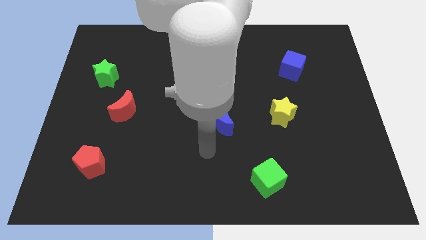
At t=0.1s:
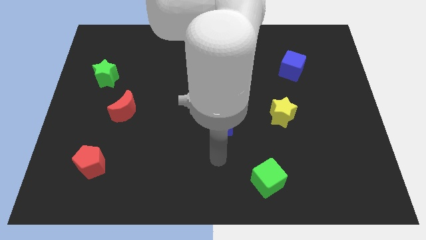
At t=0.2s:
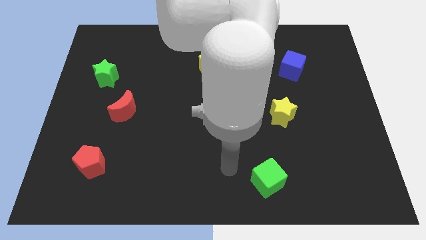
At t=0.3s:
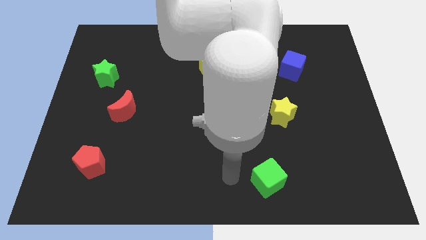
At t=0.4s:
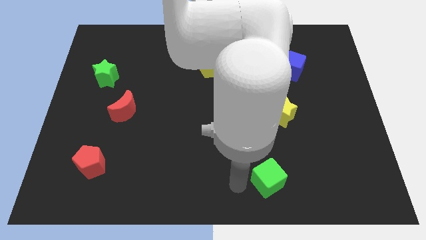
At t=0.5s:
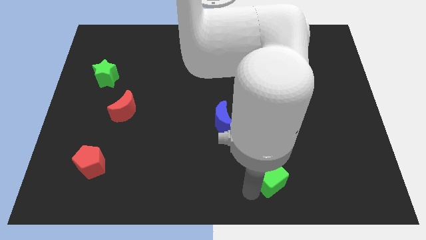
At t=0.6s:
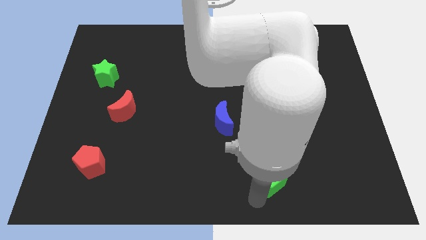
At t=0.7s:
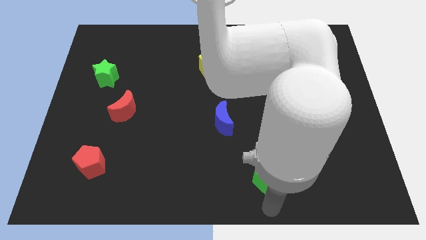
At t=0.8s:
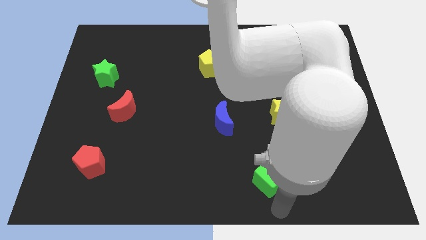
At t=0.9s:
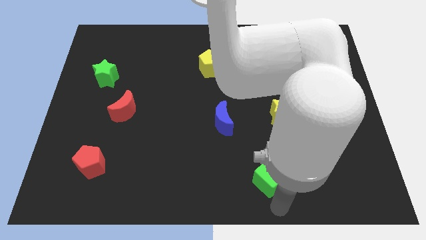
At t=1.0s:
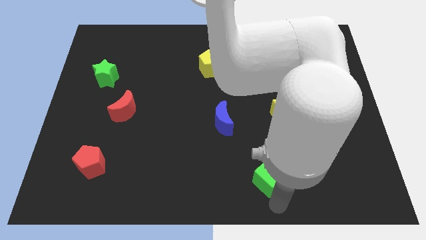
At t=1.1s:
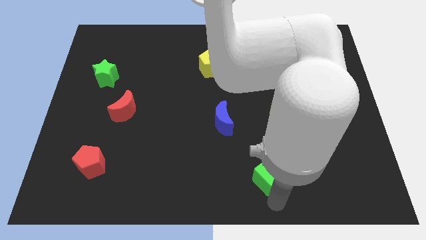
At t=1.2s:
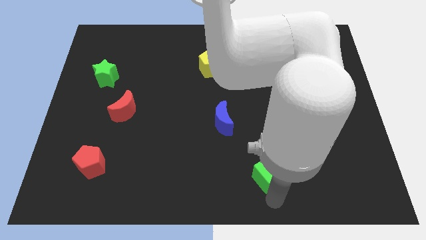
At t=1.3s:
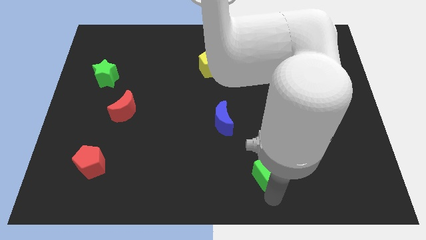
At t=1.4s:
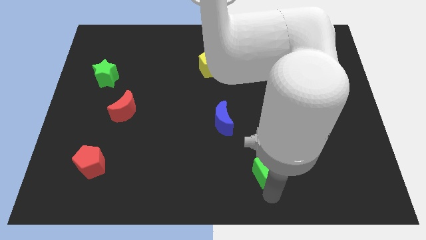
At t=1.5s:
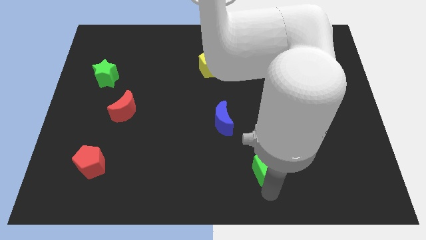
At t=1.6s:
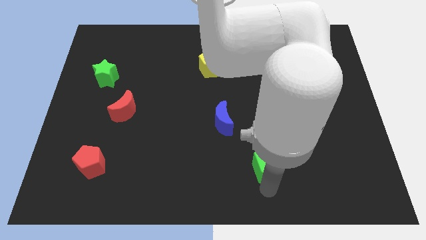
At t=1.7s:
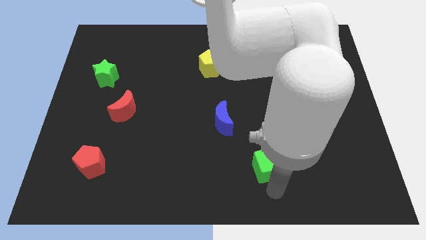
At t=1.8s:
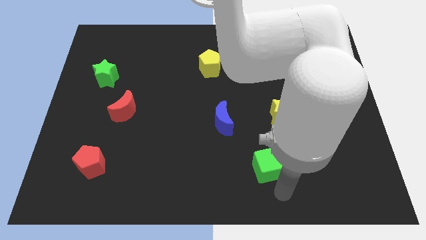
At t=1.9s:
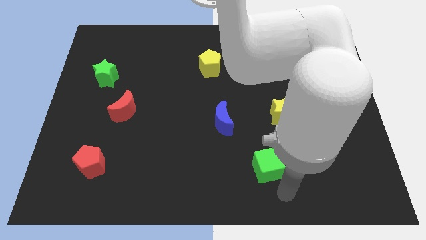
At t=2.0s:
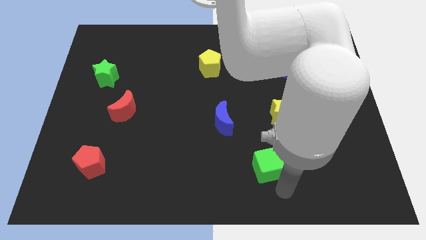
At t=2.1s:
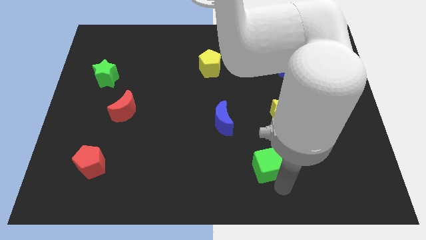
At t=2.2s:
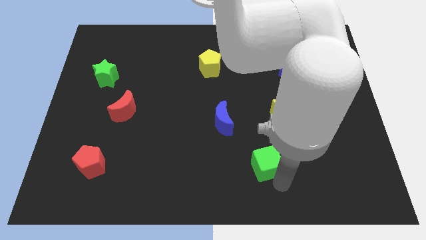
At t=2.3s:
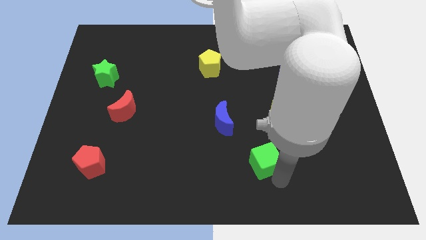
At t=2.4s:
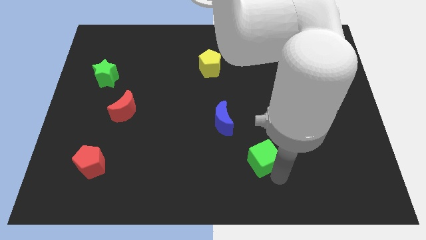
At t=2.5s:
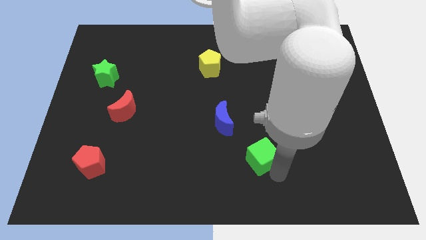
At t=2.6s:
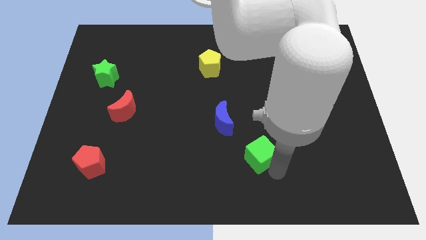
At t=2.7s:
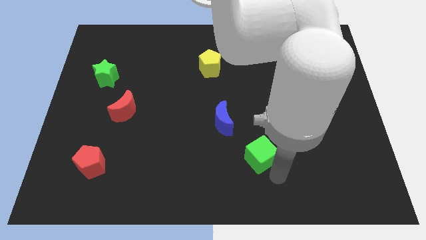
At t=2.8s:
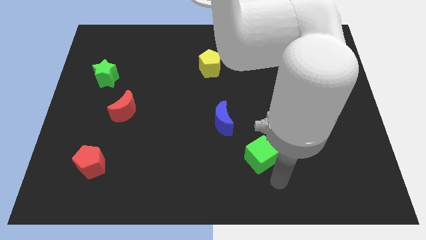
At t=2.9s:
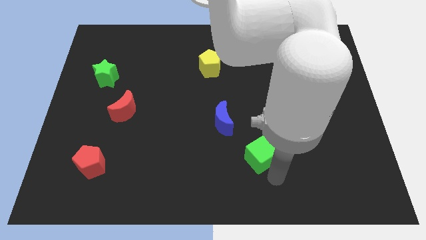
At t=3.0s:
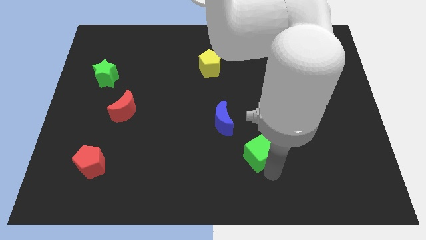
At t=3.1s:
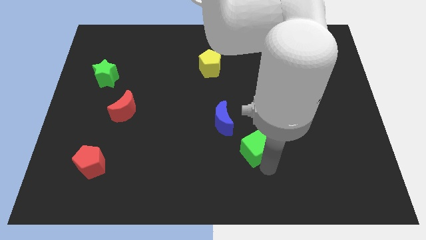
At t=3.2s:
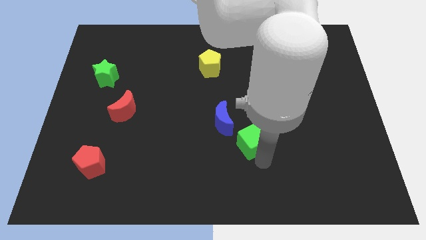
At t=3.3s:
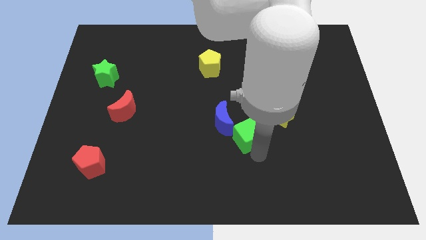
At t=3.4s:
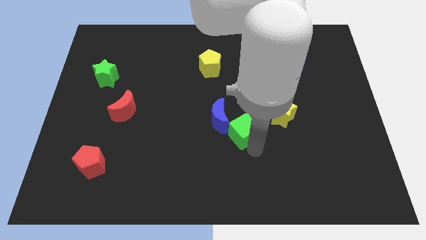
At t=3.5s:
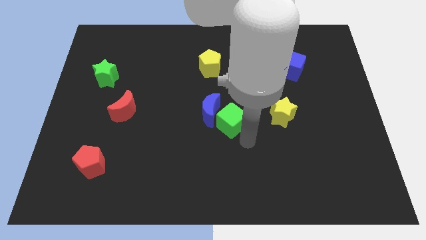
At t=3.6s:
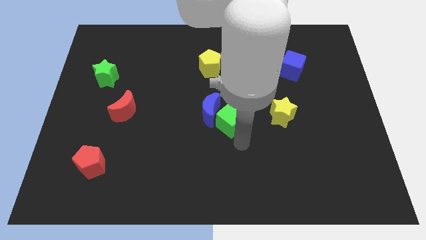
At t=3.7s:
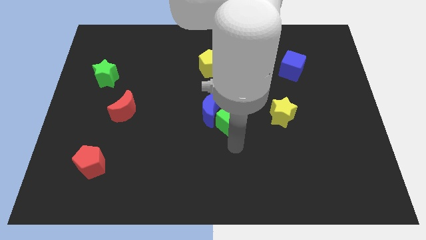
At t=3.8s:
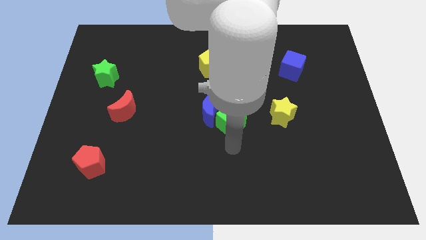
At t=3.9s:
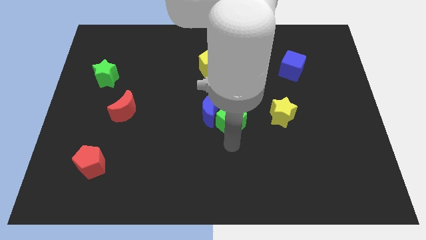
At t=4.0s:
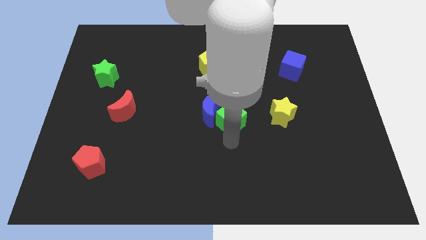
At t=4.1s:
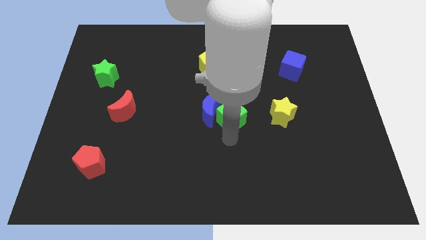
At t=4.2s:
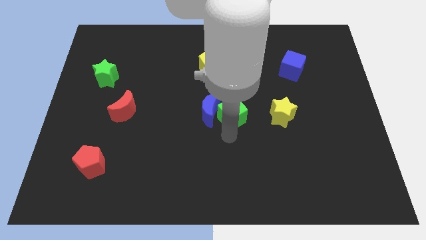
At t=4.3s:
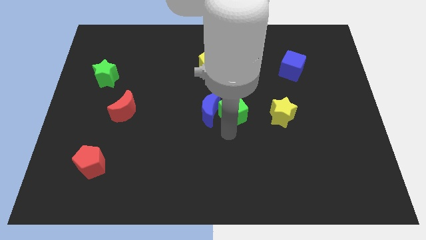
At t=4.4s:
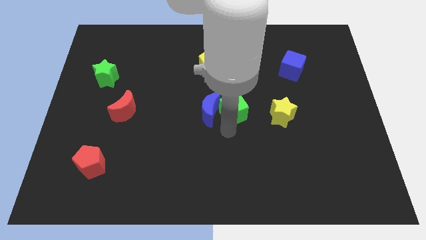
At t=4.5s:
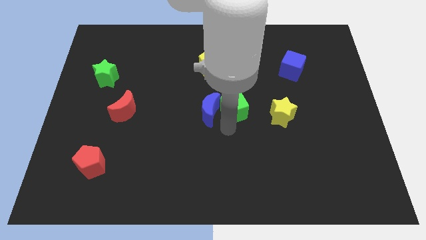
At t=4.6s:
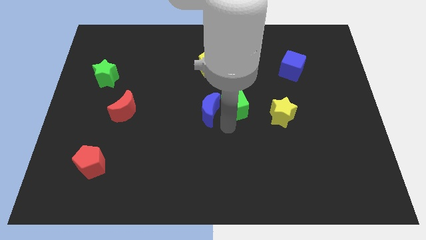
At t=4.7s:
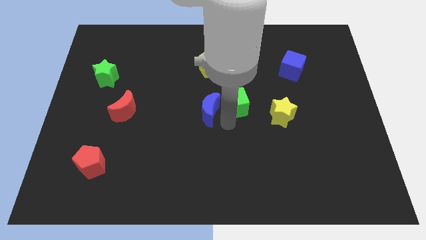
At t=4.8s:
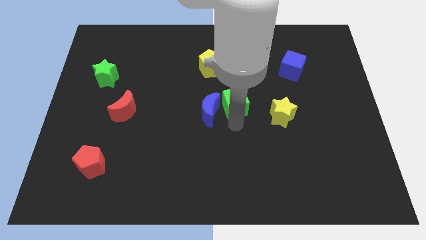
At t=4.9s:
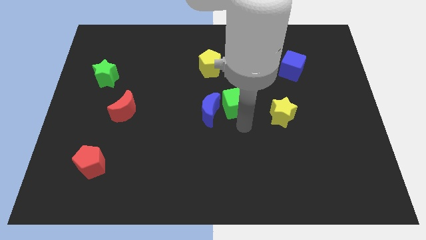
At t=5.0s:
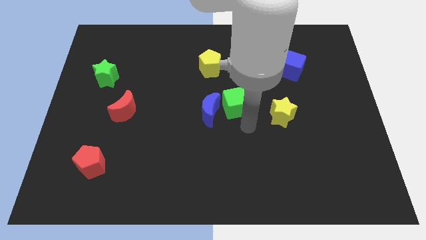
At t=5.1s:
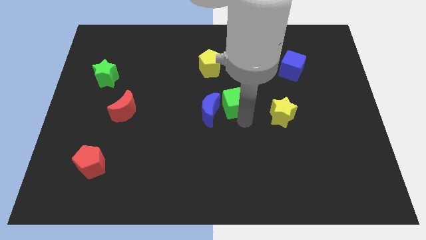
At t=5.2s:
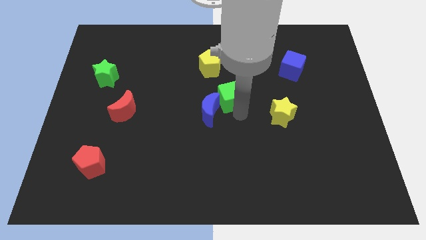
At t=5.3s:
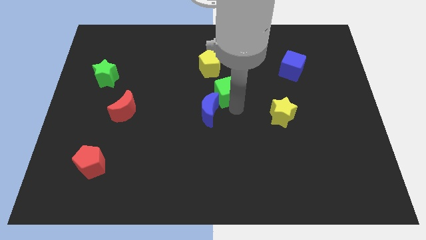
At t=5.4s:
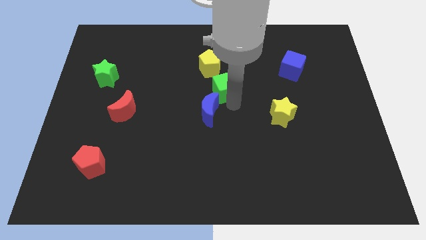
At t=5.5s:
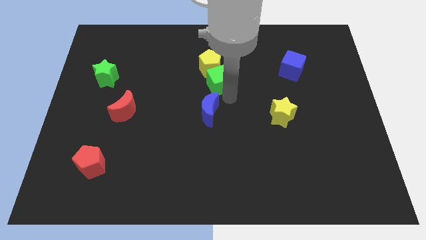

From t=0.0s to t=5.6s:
push the green cube close to the yellow pentagon

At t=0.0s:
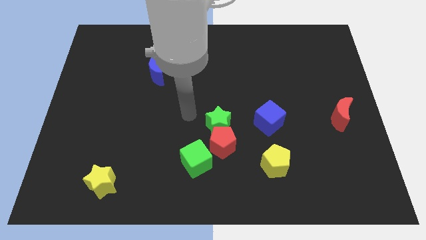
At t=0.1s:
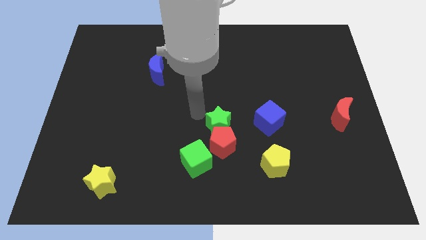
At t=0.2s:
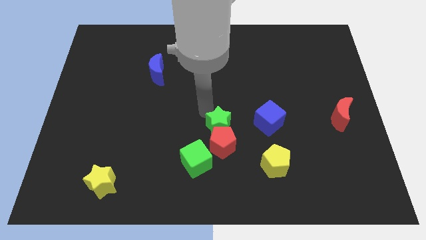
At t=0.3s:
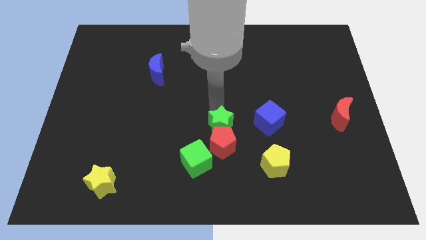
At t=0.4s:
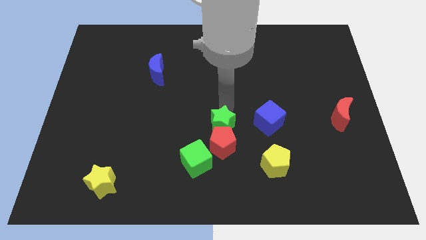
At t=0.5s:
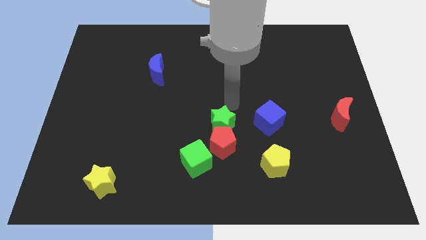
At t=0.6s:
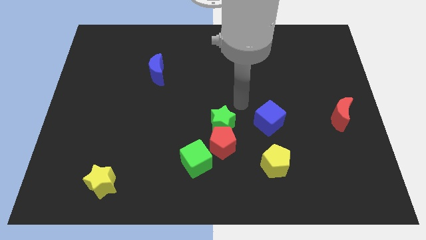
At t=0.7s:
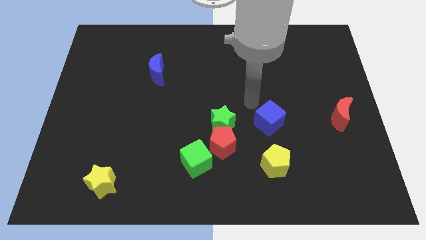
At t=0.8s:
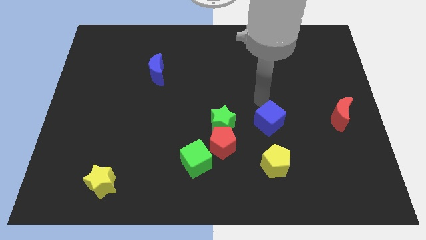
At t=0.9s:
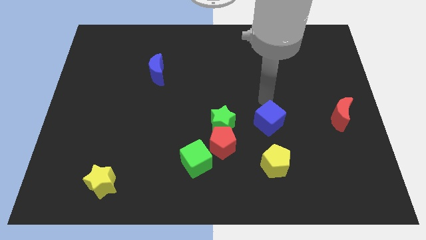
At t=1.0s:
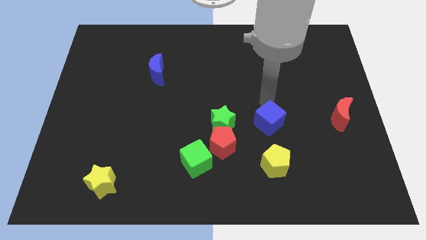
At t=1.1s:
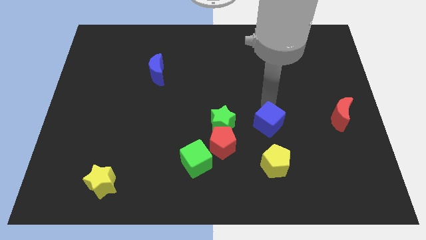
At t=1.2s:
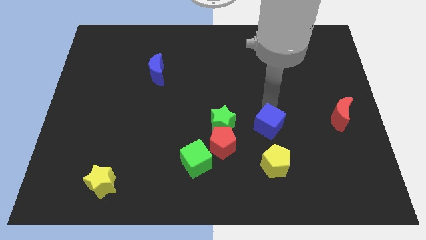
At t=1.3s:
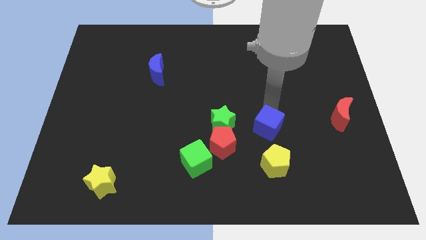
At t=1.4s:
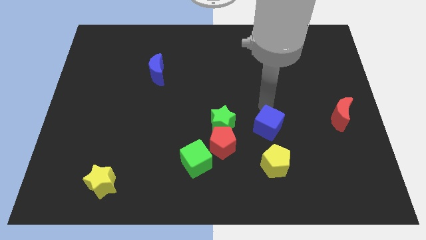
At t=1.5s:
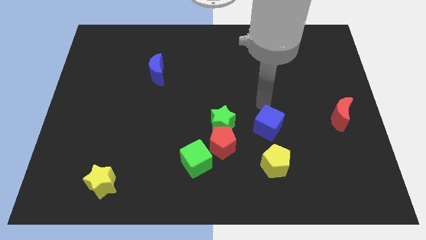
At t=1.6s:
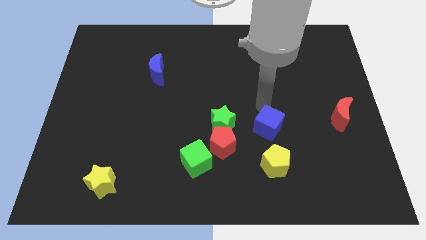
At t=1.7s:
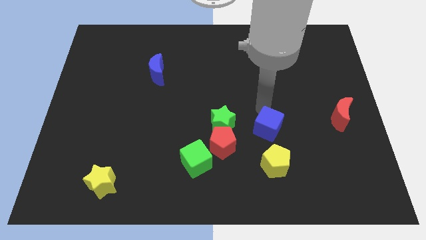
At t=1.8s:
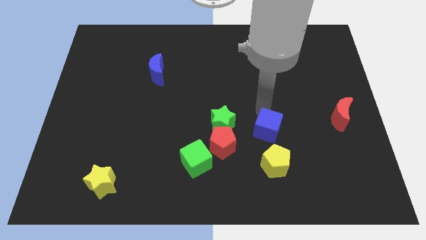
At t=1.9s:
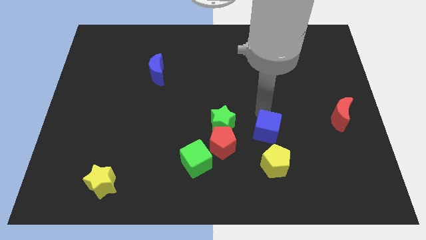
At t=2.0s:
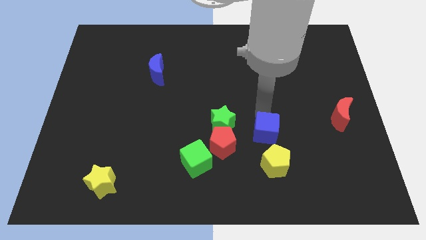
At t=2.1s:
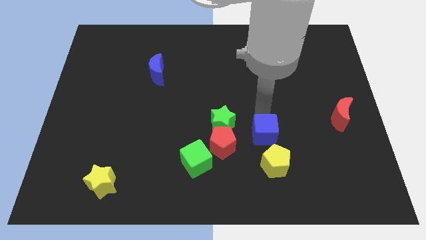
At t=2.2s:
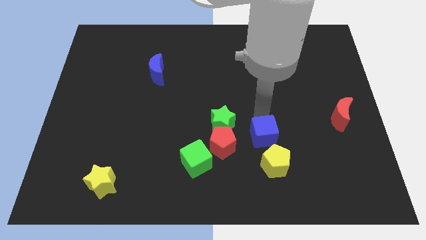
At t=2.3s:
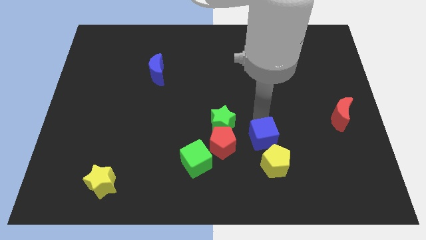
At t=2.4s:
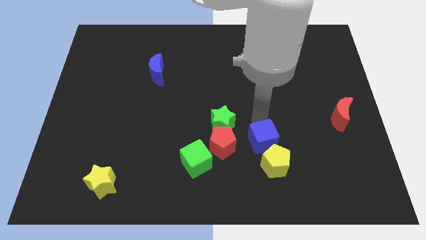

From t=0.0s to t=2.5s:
slide the blue cube next to the yellow pentagon
